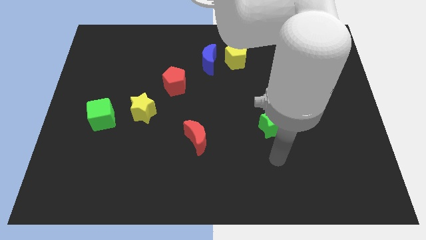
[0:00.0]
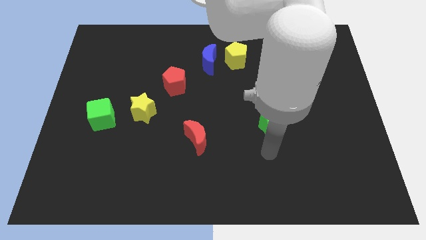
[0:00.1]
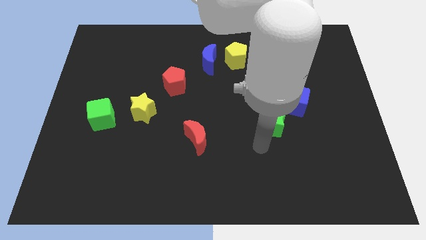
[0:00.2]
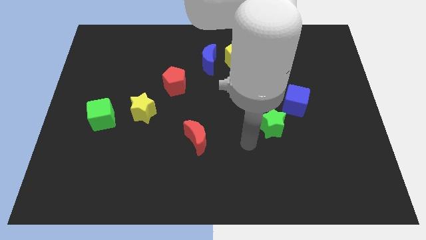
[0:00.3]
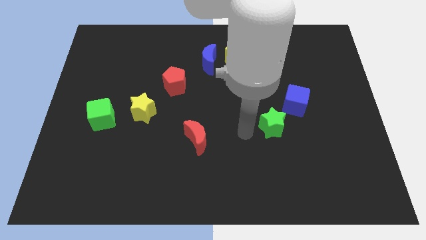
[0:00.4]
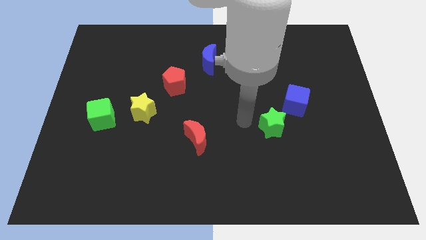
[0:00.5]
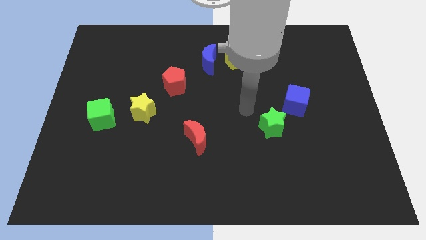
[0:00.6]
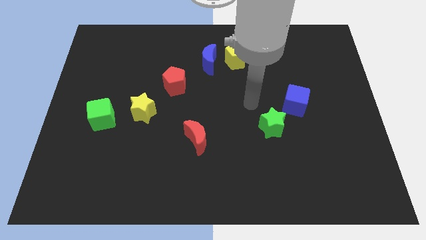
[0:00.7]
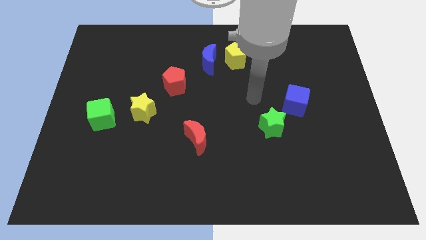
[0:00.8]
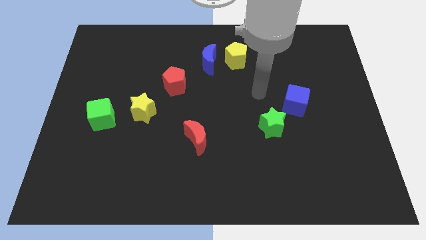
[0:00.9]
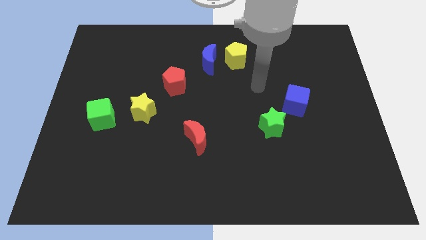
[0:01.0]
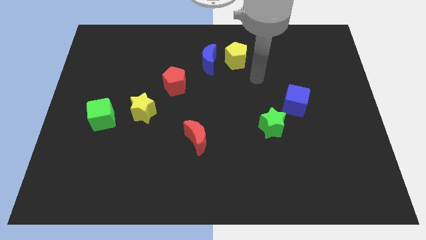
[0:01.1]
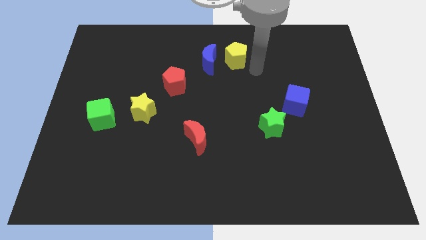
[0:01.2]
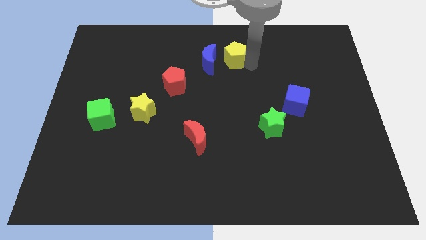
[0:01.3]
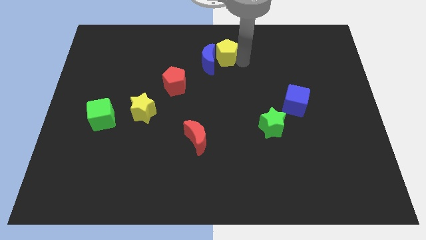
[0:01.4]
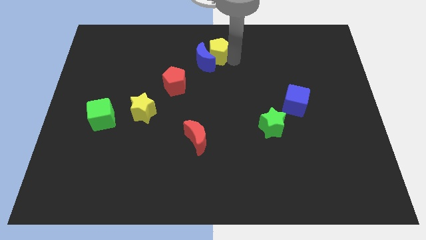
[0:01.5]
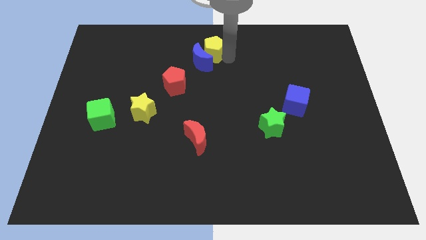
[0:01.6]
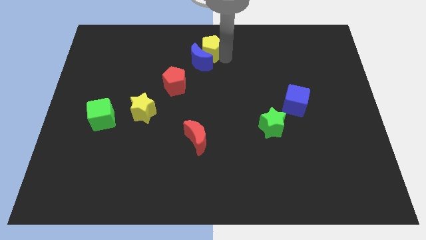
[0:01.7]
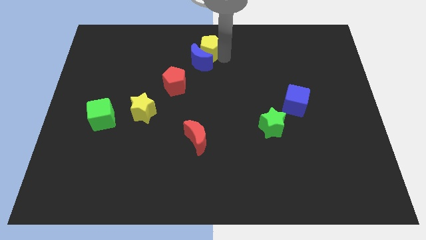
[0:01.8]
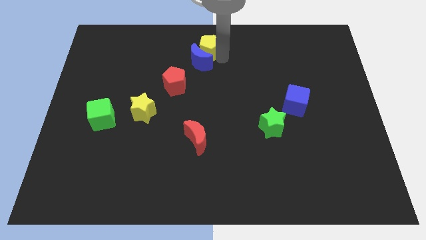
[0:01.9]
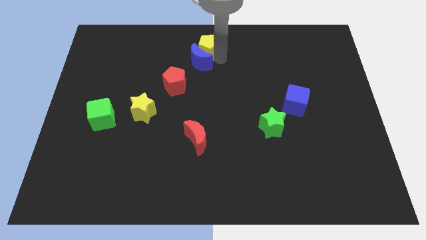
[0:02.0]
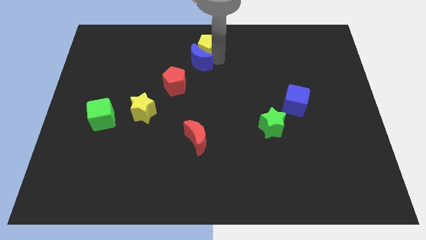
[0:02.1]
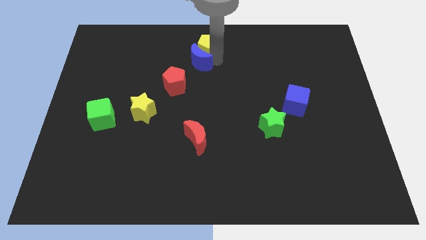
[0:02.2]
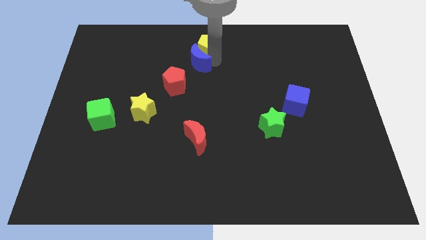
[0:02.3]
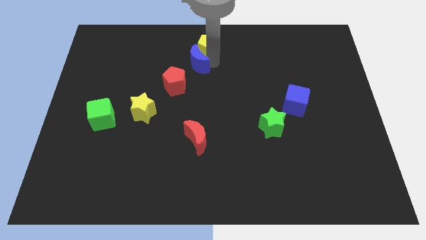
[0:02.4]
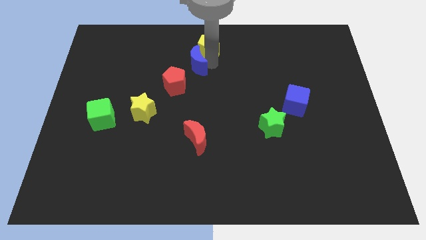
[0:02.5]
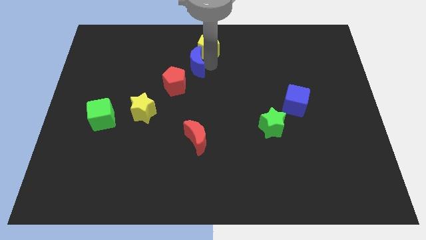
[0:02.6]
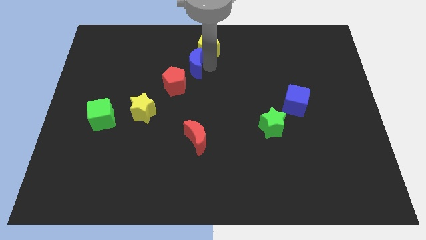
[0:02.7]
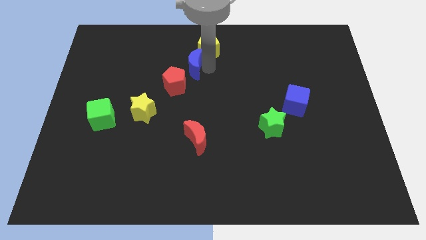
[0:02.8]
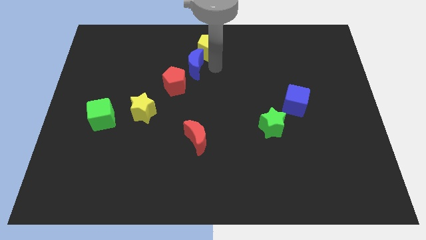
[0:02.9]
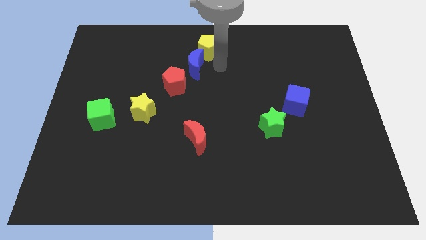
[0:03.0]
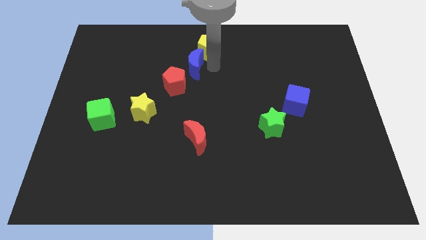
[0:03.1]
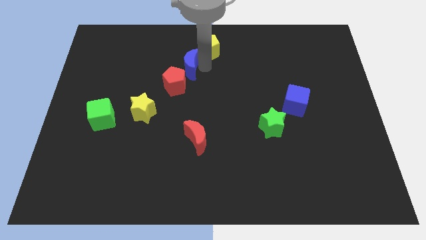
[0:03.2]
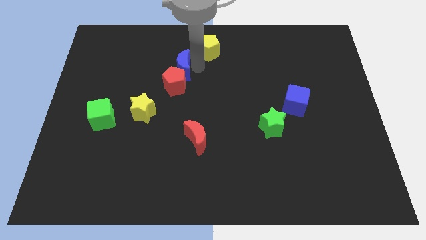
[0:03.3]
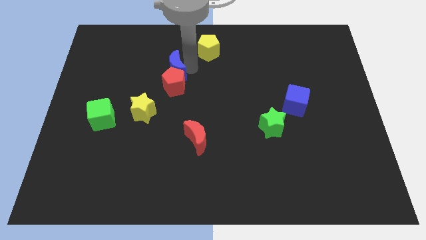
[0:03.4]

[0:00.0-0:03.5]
slightly push the blue moon left

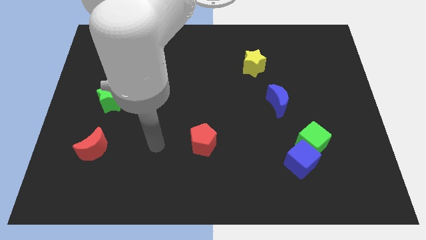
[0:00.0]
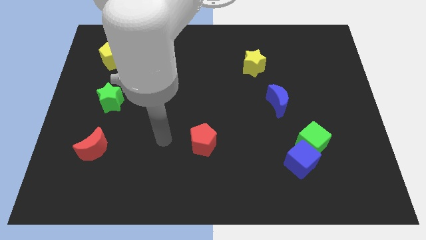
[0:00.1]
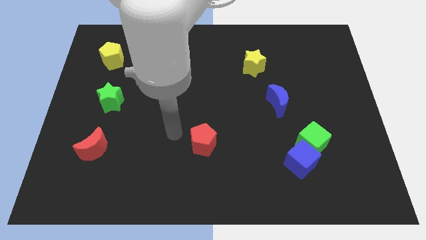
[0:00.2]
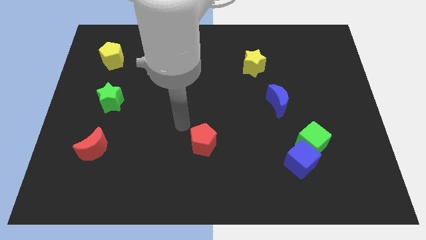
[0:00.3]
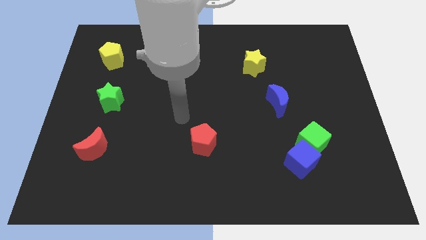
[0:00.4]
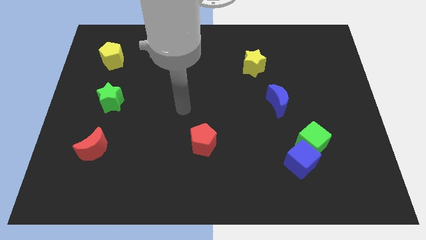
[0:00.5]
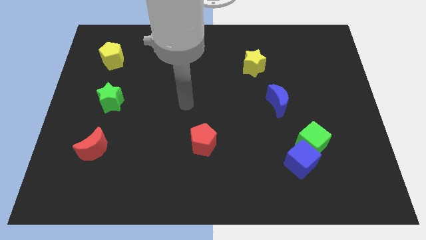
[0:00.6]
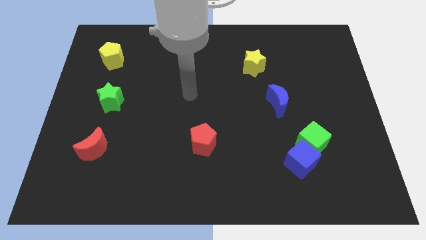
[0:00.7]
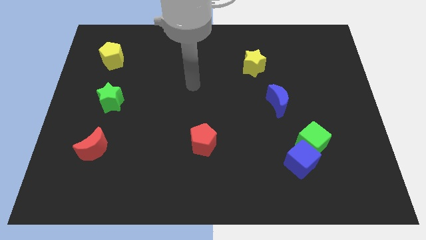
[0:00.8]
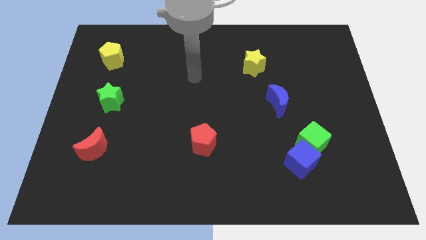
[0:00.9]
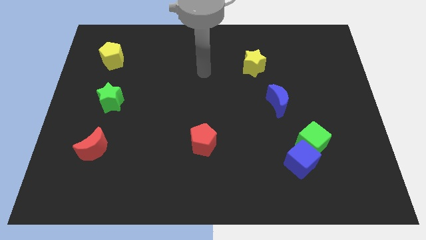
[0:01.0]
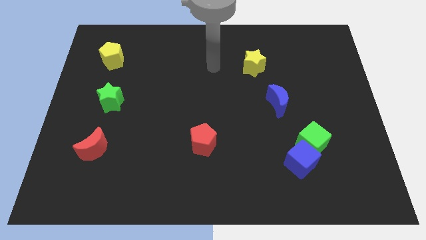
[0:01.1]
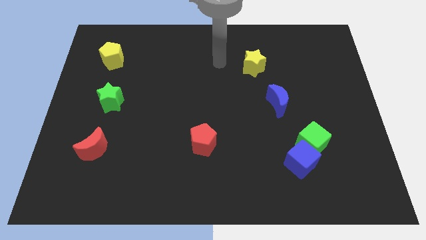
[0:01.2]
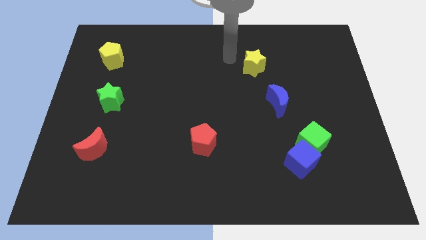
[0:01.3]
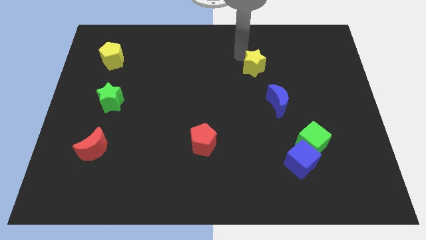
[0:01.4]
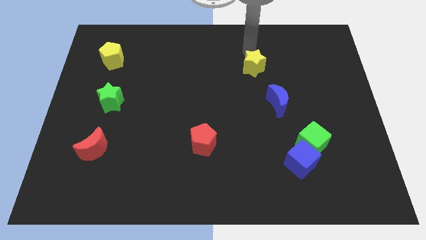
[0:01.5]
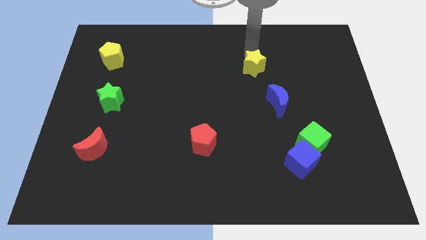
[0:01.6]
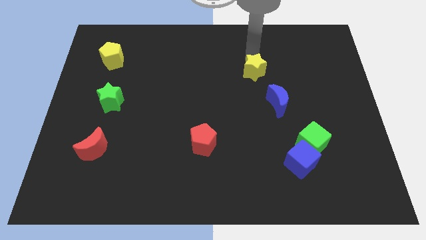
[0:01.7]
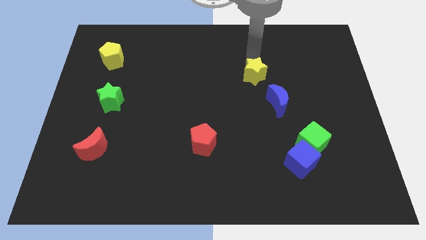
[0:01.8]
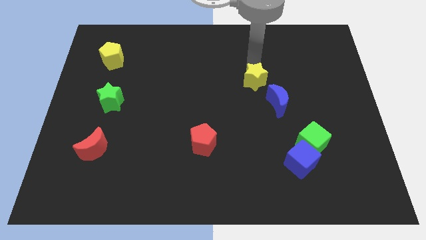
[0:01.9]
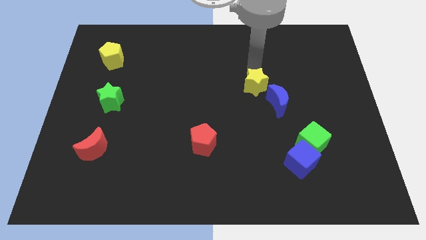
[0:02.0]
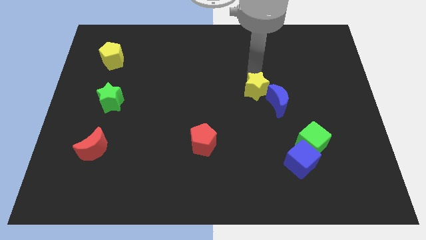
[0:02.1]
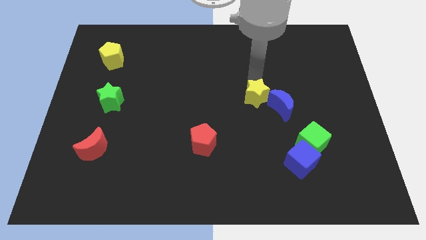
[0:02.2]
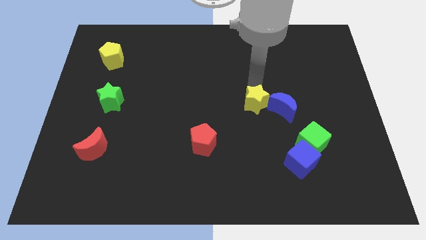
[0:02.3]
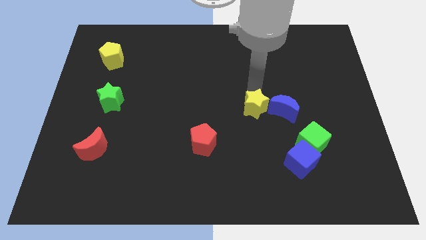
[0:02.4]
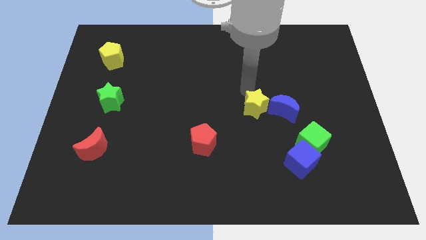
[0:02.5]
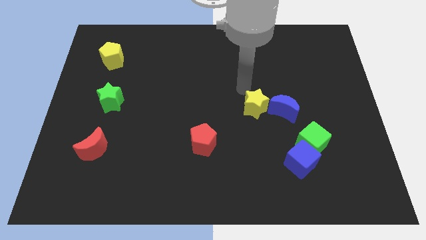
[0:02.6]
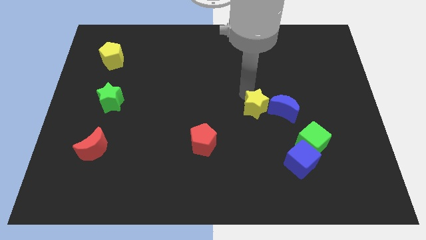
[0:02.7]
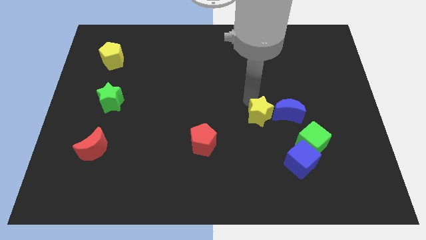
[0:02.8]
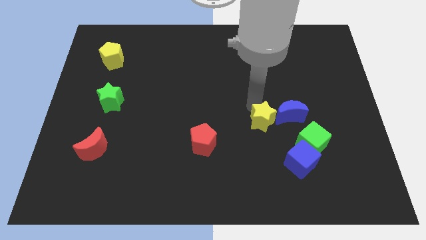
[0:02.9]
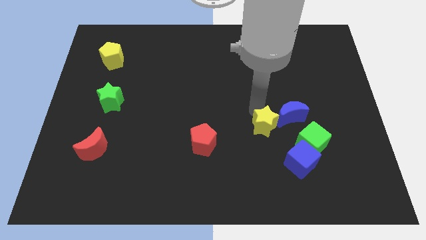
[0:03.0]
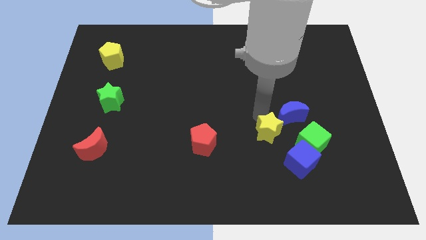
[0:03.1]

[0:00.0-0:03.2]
push the yellow star down

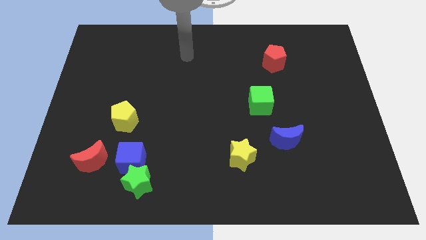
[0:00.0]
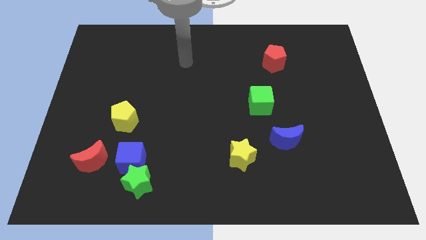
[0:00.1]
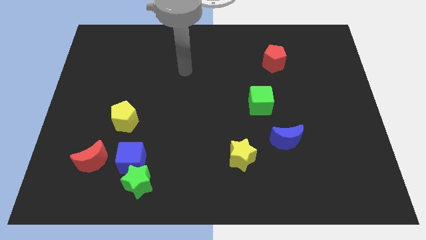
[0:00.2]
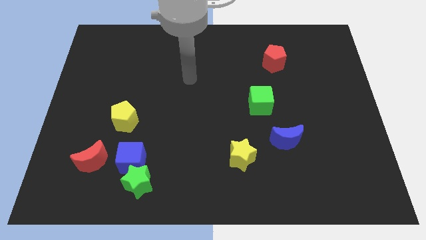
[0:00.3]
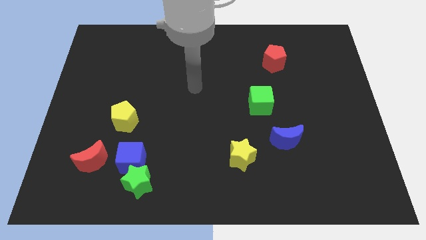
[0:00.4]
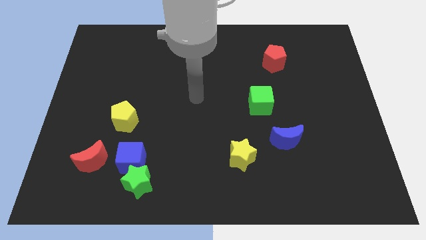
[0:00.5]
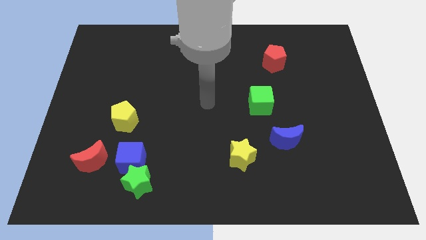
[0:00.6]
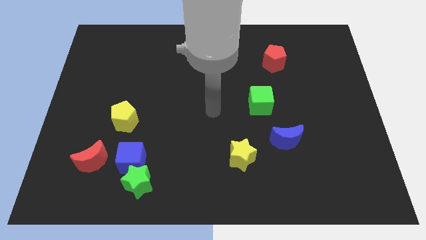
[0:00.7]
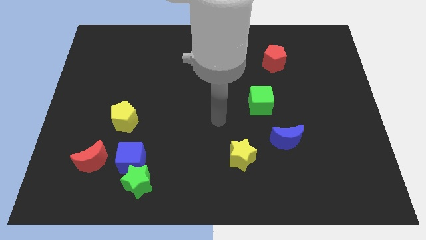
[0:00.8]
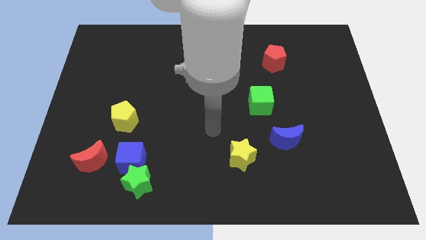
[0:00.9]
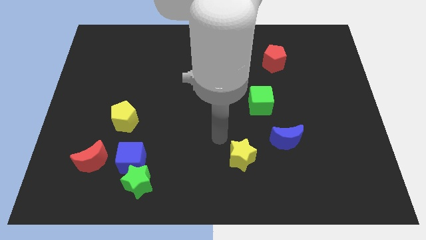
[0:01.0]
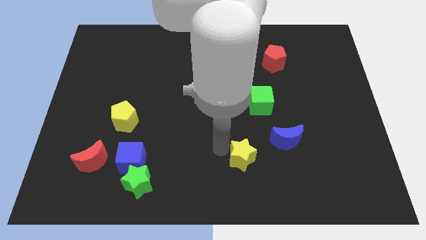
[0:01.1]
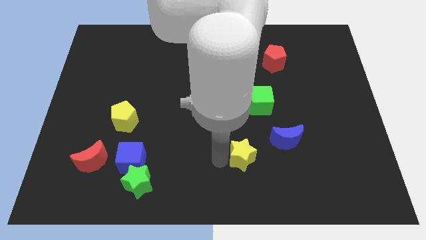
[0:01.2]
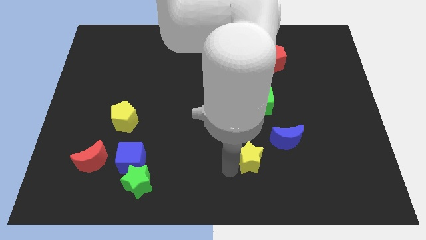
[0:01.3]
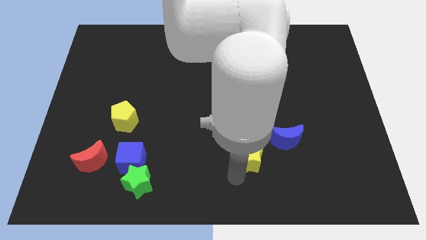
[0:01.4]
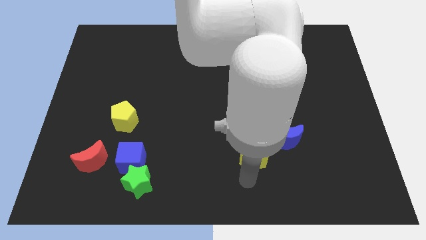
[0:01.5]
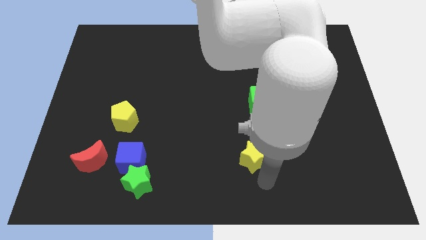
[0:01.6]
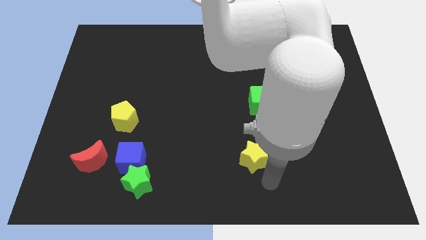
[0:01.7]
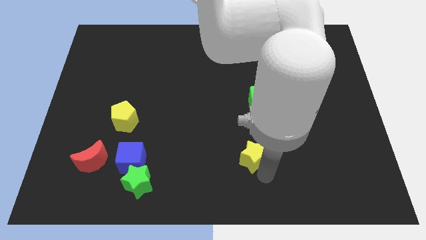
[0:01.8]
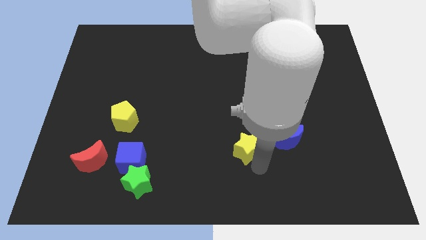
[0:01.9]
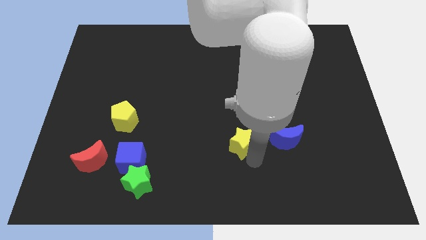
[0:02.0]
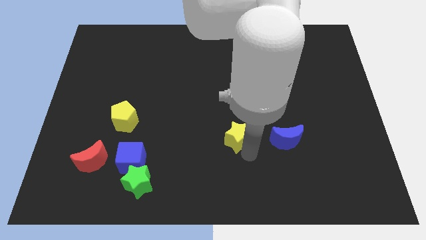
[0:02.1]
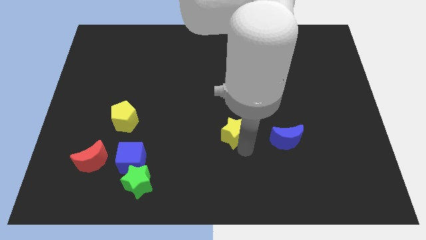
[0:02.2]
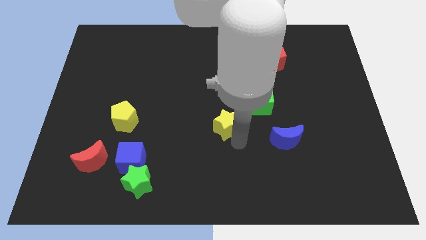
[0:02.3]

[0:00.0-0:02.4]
slide the yellow star upwards a little bit
